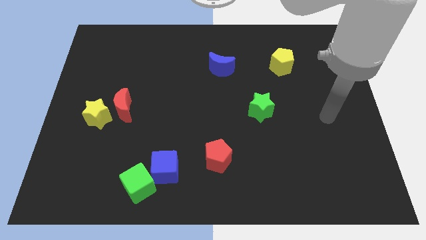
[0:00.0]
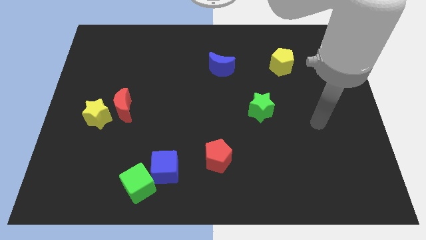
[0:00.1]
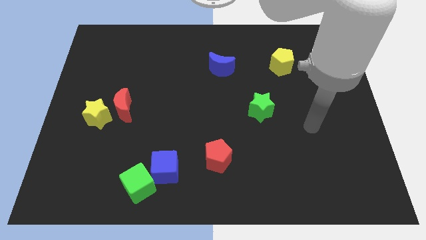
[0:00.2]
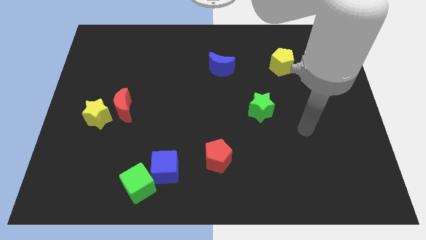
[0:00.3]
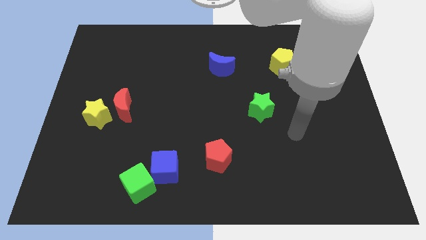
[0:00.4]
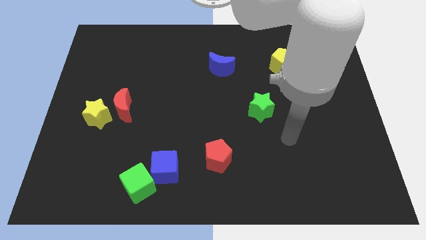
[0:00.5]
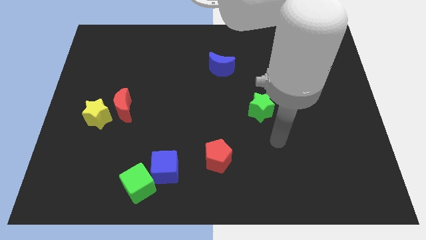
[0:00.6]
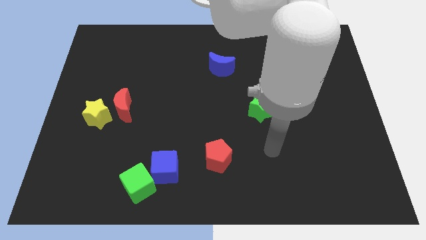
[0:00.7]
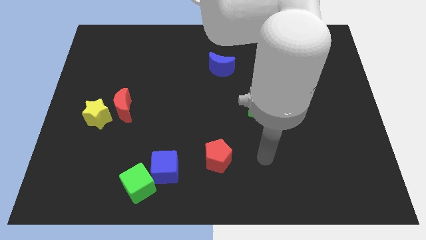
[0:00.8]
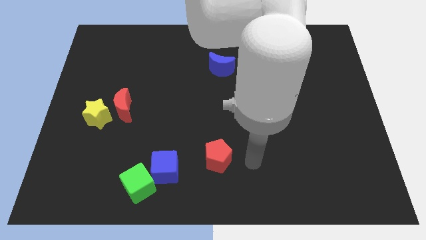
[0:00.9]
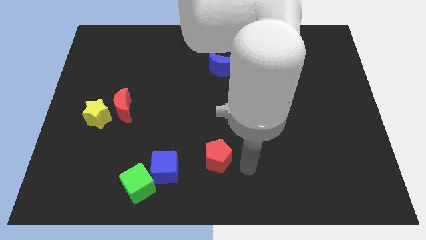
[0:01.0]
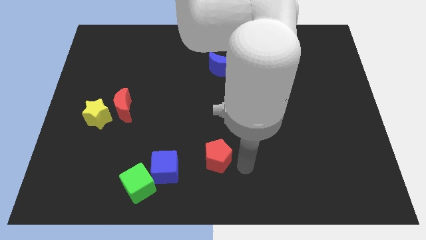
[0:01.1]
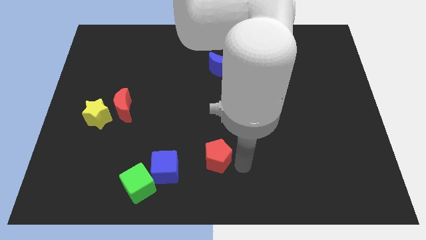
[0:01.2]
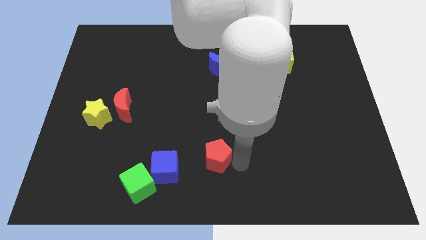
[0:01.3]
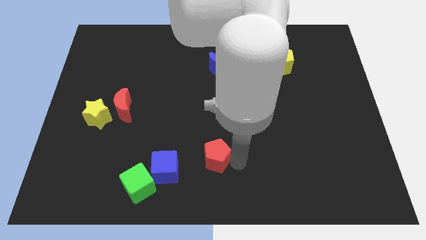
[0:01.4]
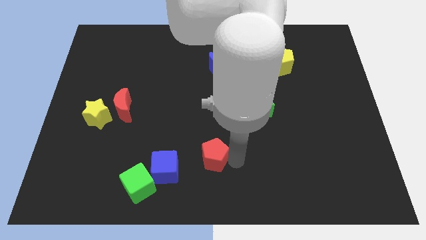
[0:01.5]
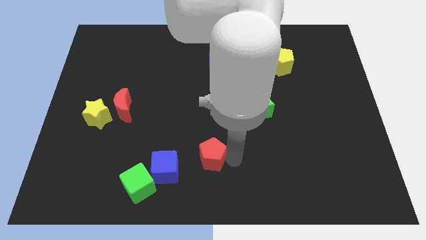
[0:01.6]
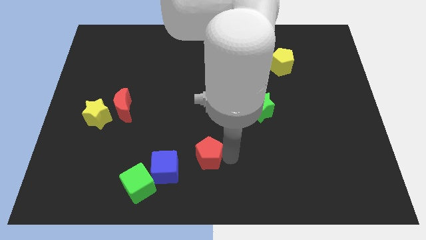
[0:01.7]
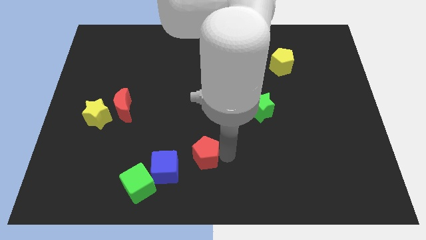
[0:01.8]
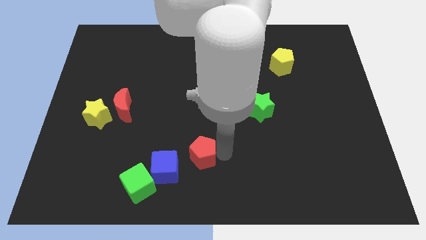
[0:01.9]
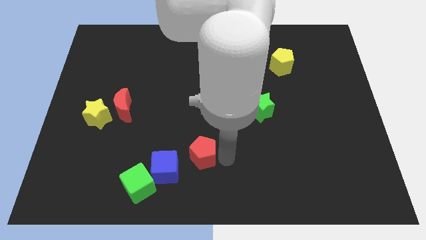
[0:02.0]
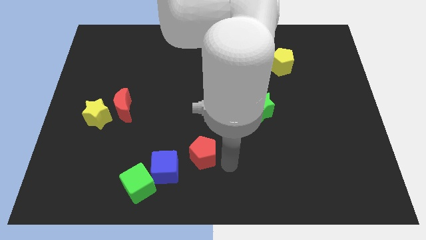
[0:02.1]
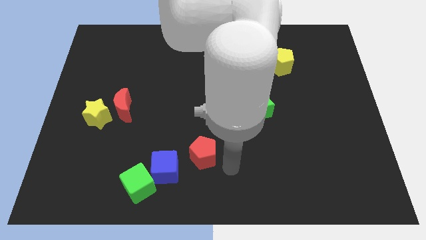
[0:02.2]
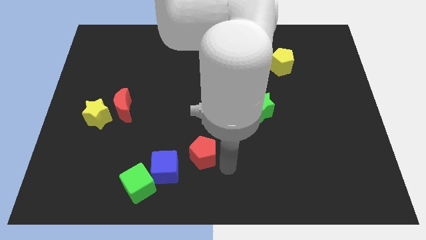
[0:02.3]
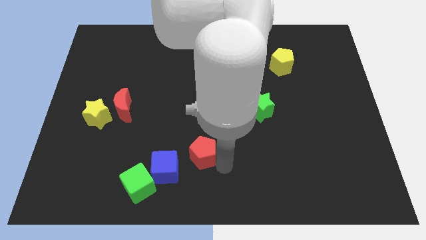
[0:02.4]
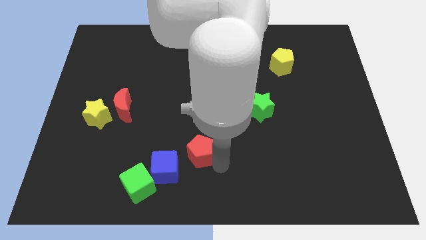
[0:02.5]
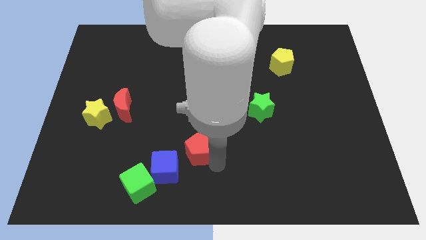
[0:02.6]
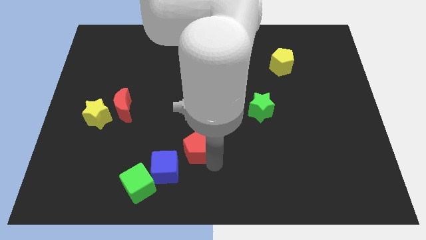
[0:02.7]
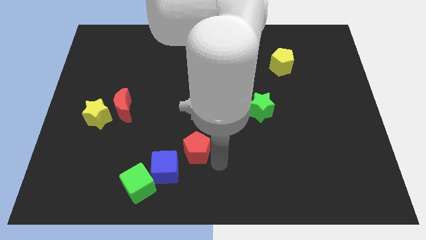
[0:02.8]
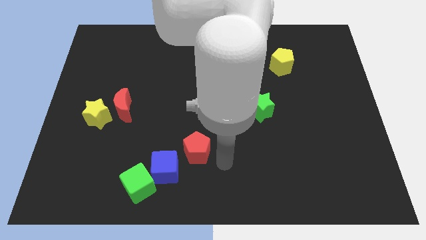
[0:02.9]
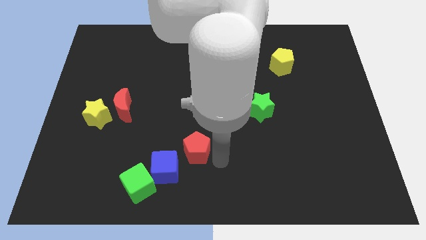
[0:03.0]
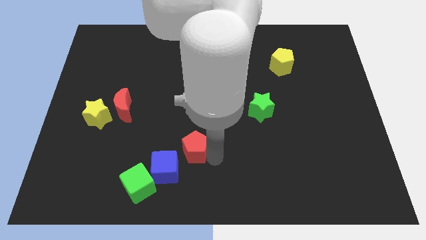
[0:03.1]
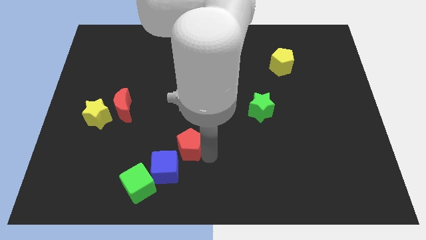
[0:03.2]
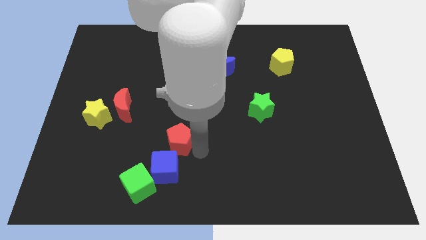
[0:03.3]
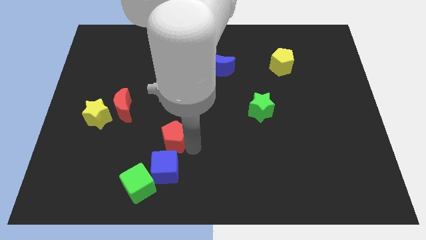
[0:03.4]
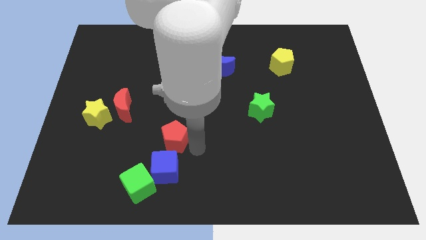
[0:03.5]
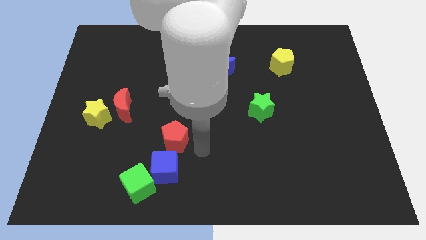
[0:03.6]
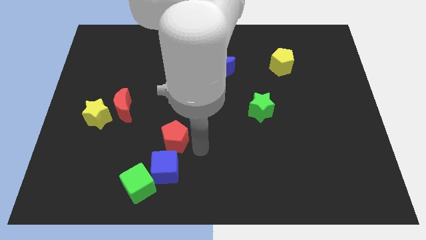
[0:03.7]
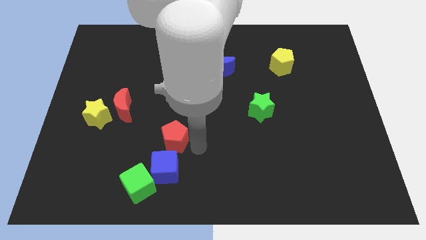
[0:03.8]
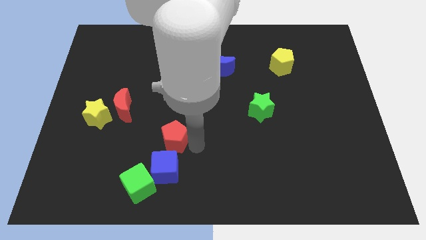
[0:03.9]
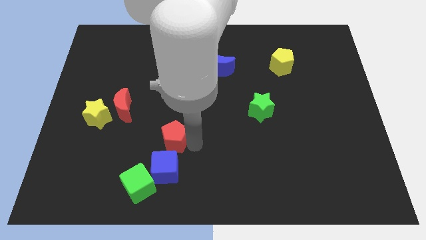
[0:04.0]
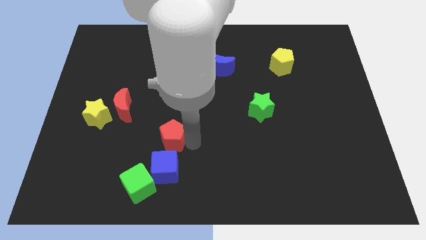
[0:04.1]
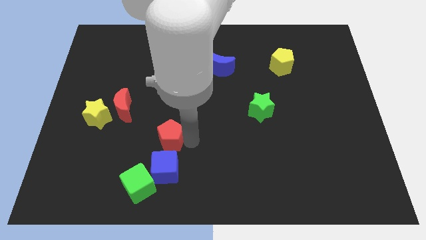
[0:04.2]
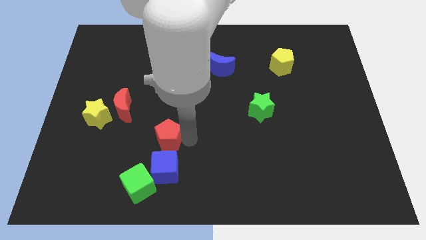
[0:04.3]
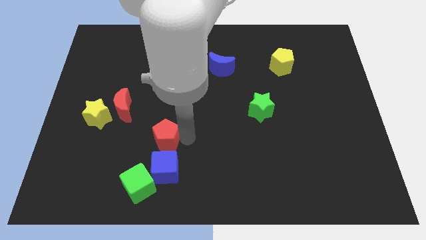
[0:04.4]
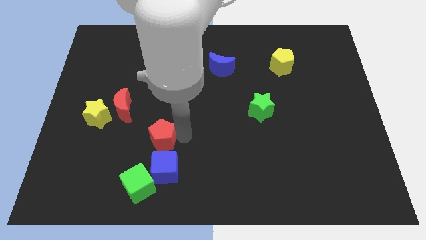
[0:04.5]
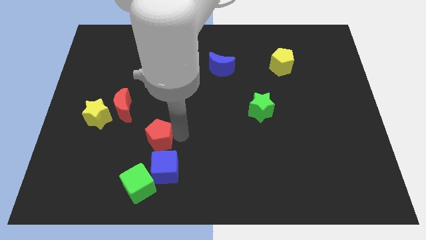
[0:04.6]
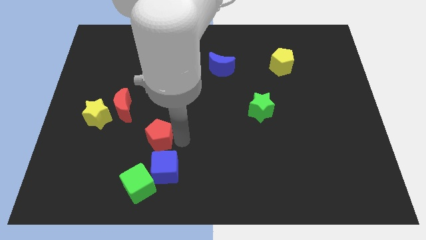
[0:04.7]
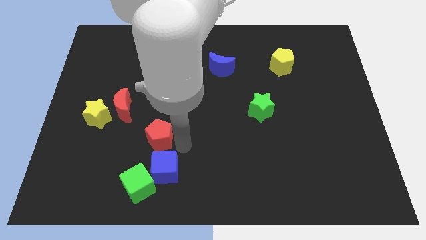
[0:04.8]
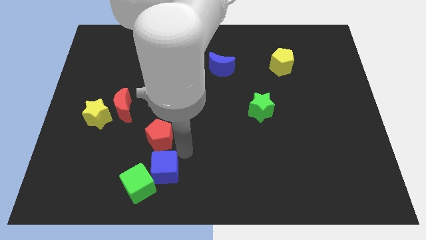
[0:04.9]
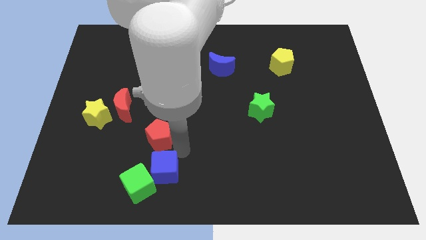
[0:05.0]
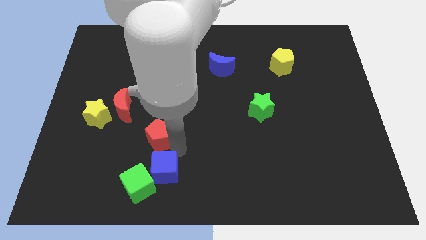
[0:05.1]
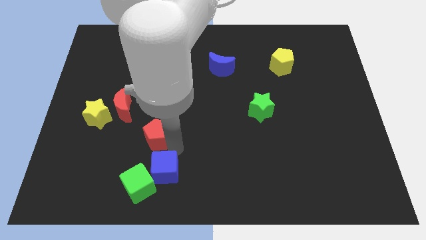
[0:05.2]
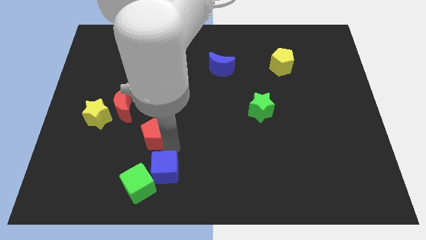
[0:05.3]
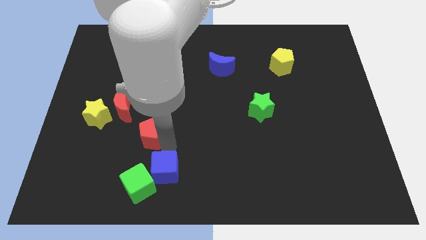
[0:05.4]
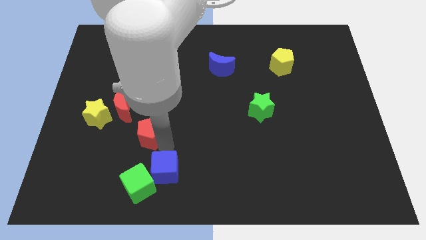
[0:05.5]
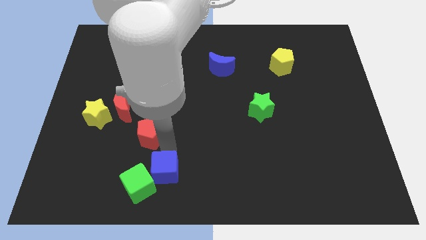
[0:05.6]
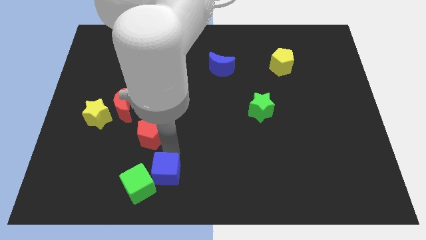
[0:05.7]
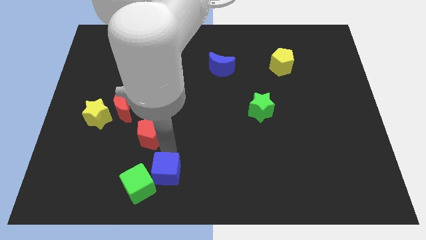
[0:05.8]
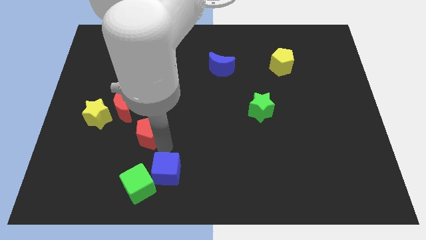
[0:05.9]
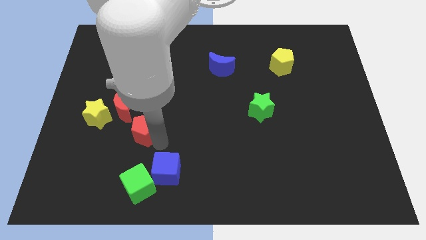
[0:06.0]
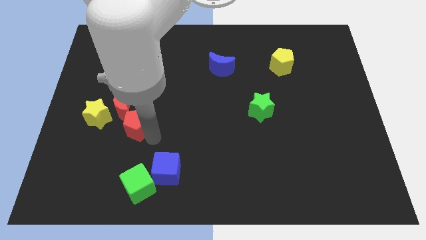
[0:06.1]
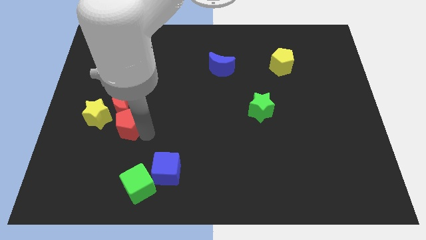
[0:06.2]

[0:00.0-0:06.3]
move the red pentagon to the red moon

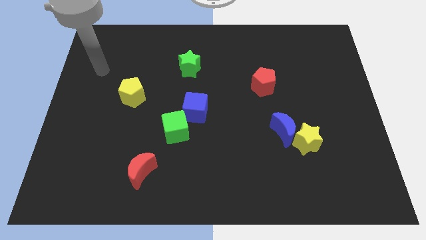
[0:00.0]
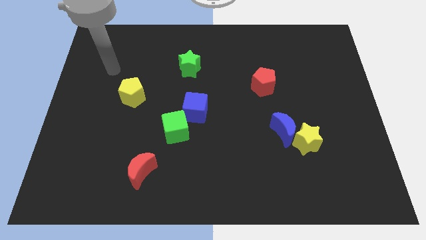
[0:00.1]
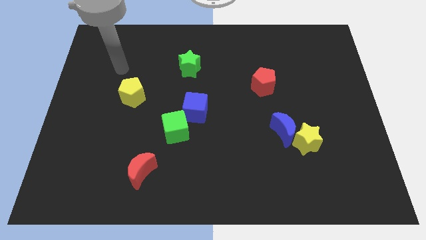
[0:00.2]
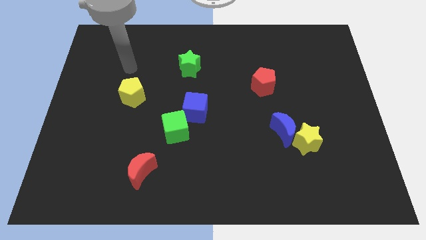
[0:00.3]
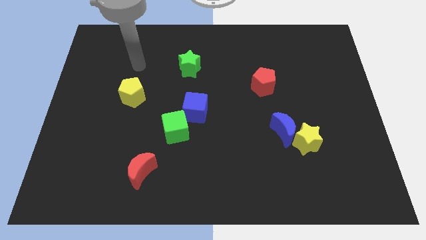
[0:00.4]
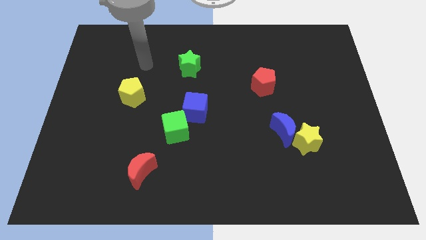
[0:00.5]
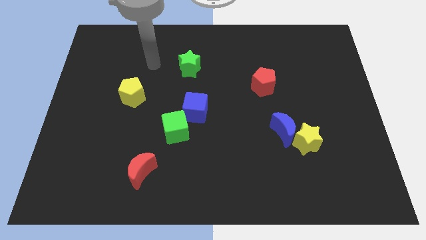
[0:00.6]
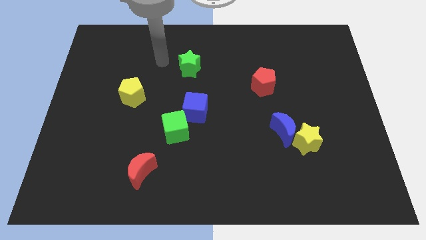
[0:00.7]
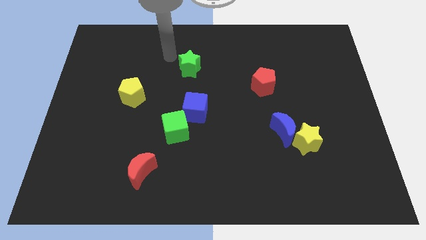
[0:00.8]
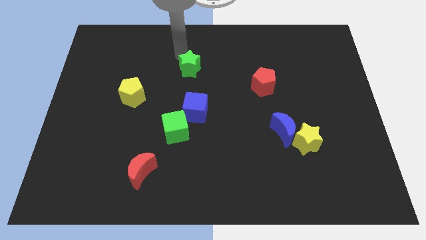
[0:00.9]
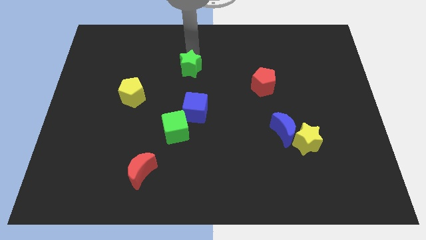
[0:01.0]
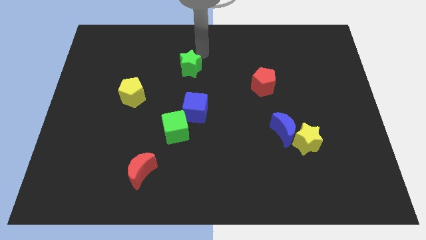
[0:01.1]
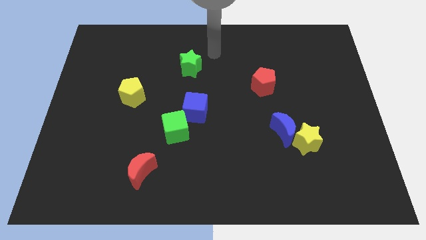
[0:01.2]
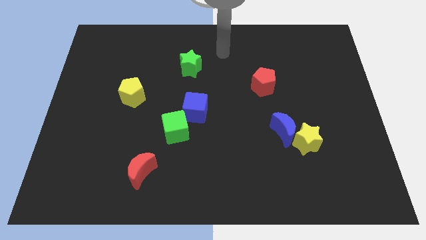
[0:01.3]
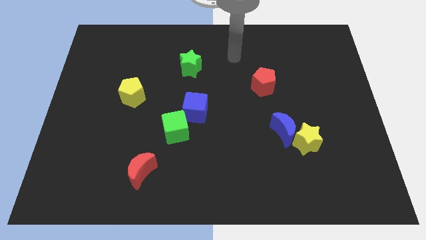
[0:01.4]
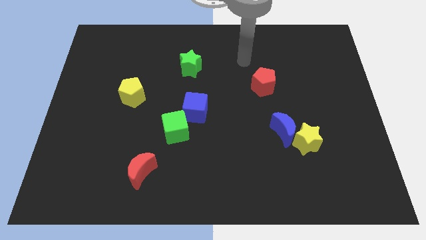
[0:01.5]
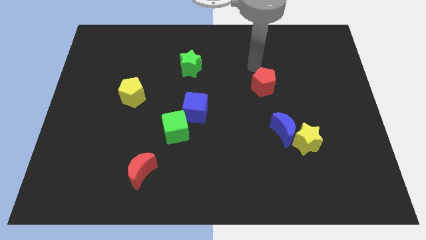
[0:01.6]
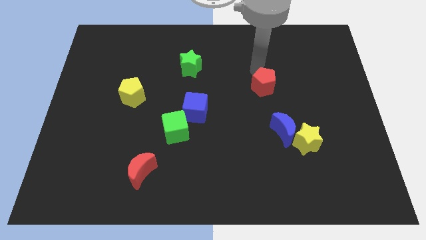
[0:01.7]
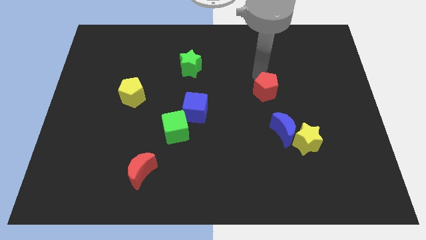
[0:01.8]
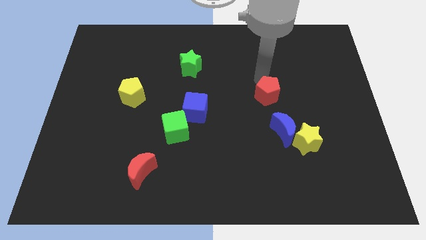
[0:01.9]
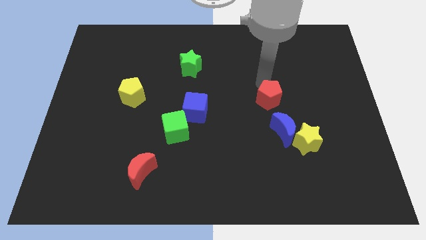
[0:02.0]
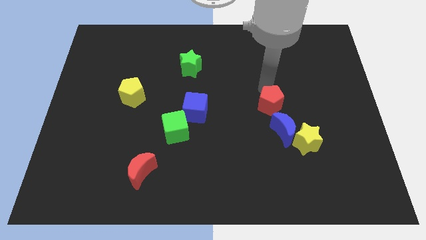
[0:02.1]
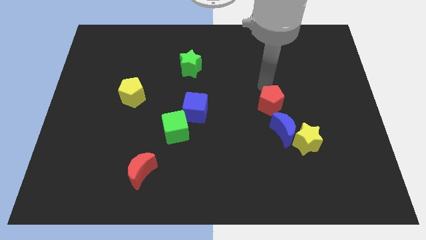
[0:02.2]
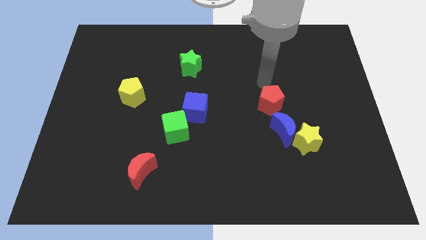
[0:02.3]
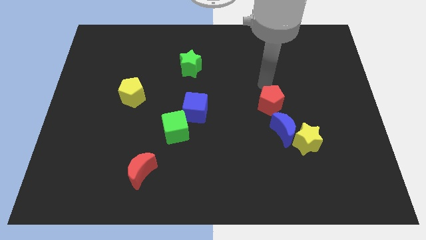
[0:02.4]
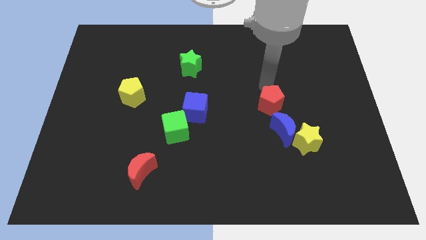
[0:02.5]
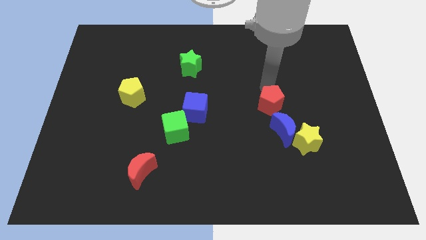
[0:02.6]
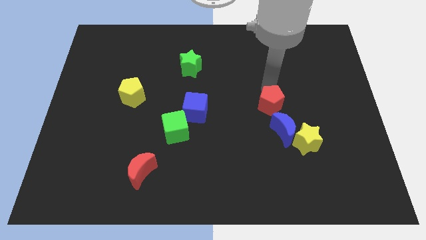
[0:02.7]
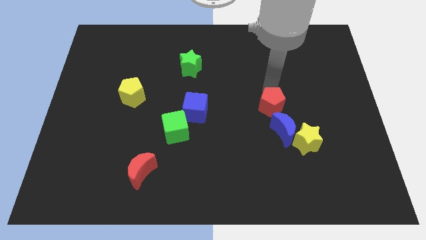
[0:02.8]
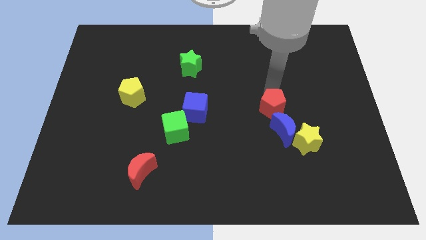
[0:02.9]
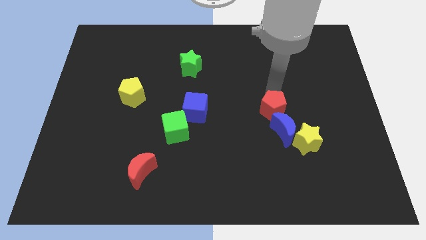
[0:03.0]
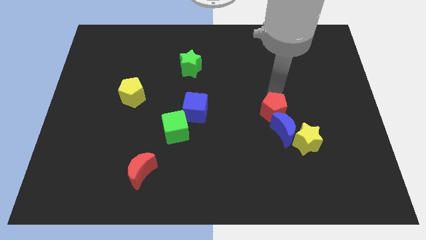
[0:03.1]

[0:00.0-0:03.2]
slide the red pentagon towards the blue moon
